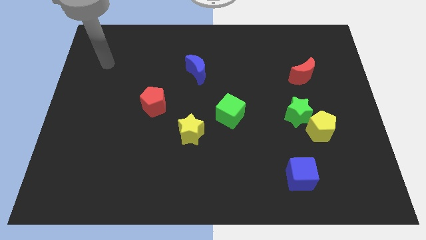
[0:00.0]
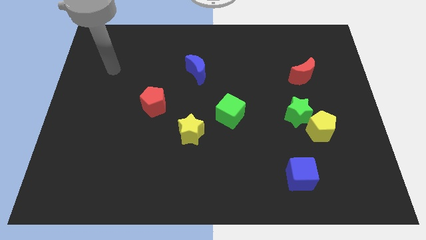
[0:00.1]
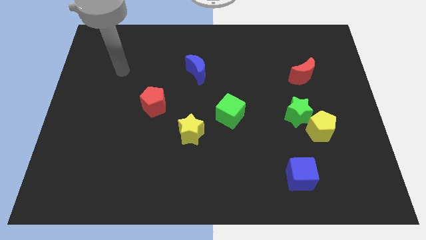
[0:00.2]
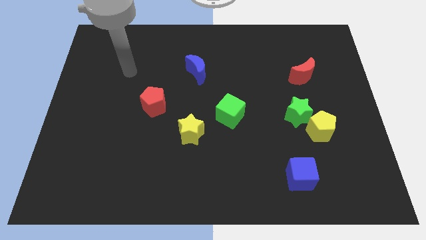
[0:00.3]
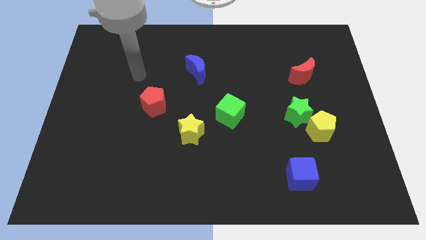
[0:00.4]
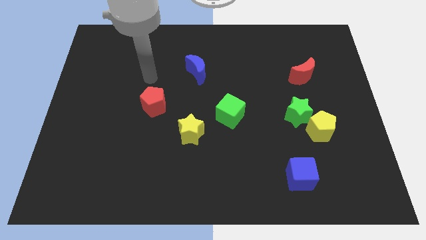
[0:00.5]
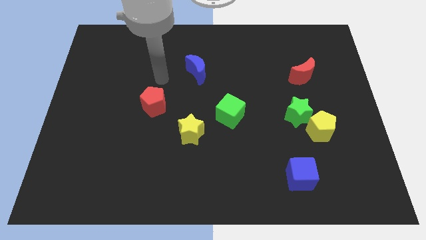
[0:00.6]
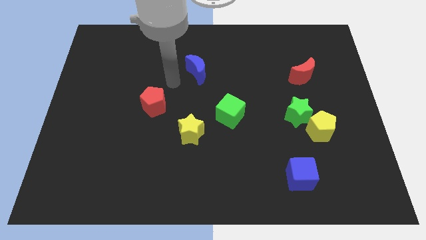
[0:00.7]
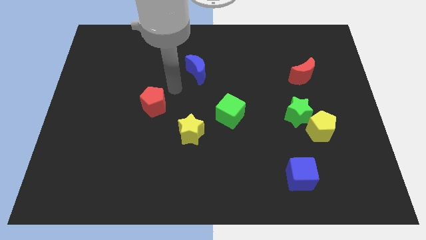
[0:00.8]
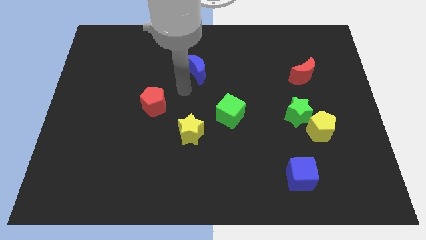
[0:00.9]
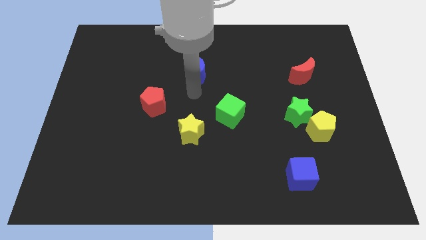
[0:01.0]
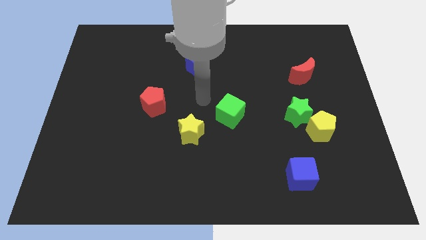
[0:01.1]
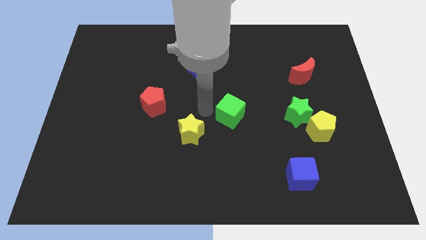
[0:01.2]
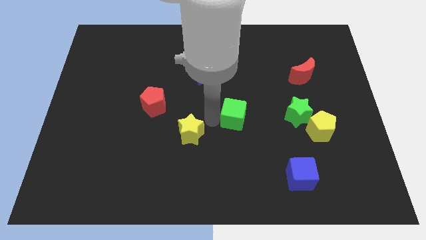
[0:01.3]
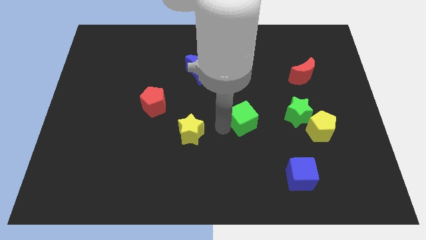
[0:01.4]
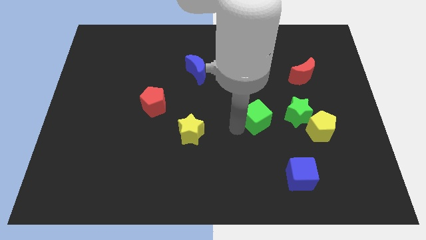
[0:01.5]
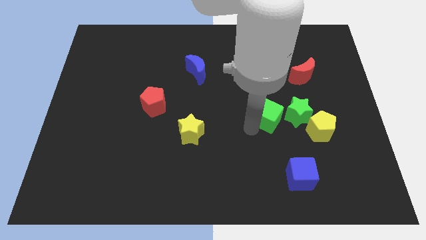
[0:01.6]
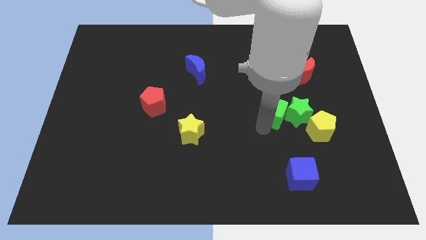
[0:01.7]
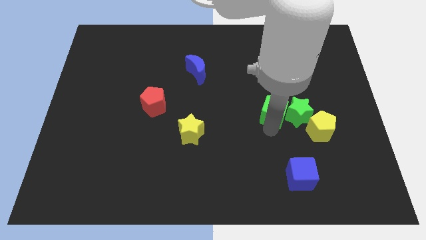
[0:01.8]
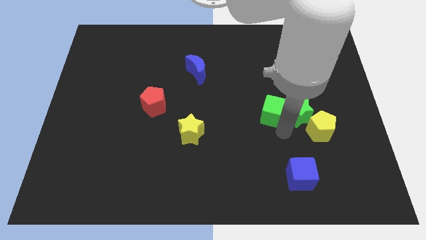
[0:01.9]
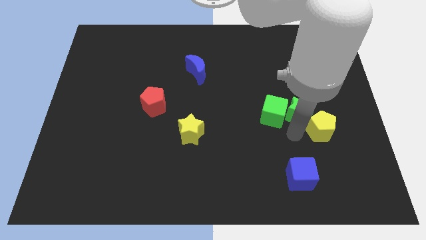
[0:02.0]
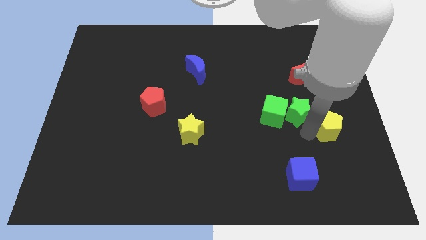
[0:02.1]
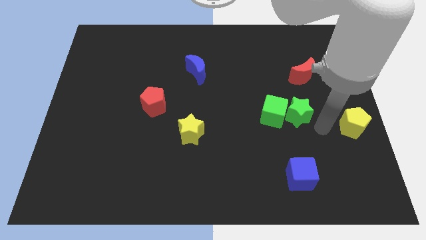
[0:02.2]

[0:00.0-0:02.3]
pull the green star apart from the yellow pentagon

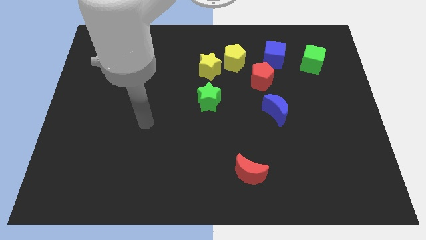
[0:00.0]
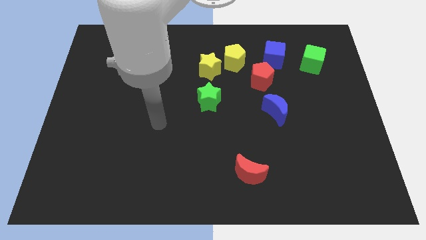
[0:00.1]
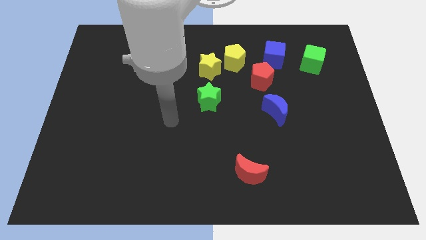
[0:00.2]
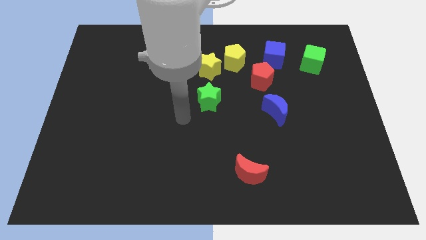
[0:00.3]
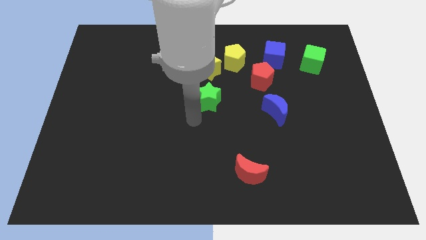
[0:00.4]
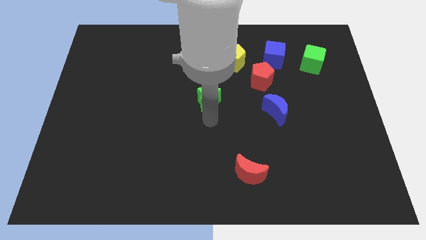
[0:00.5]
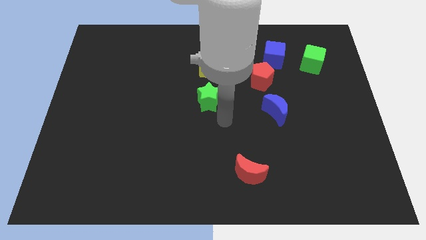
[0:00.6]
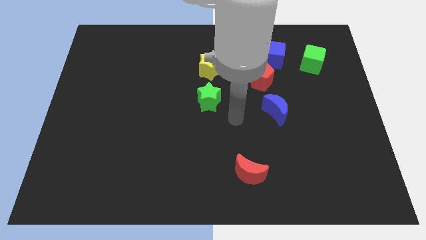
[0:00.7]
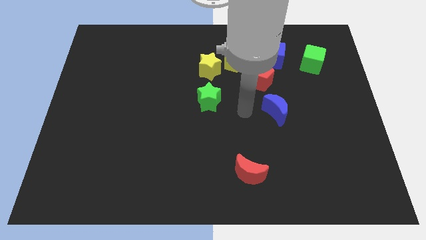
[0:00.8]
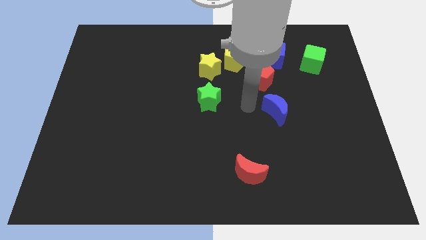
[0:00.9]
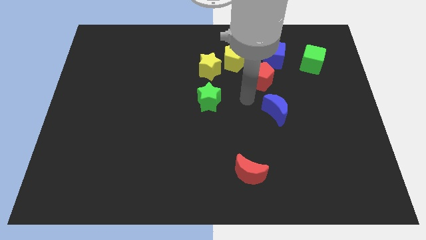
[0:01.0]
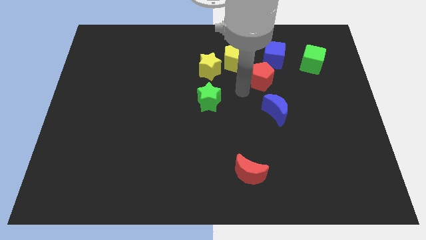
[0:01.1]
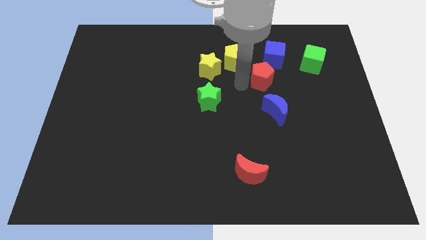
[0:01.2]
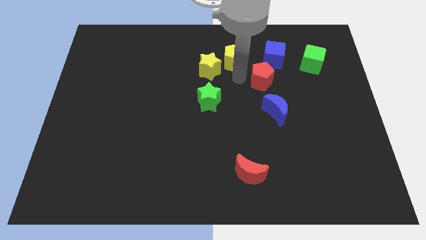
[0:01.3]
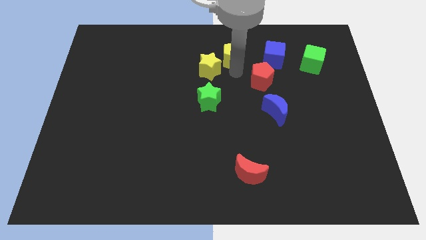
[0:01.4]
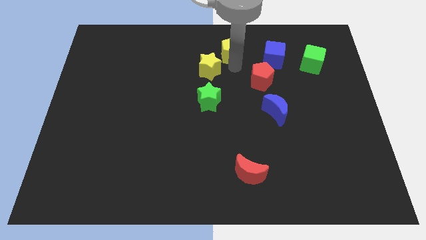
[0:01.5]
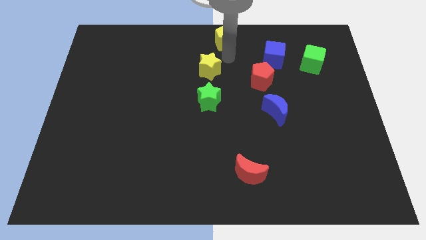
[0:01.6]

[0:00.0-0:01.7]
pull the yellow star apart from the yellow pentagon

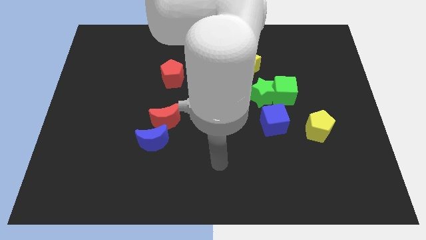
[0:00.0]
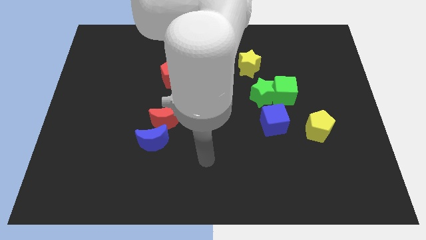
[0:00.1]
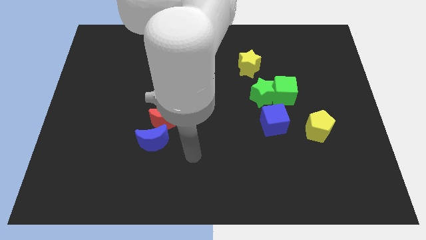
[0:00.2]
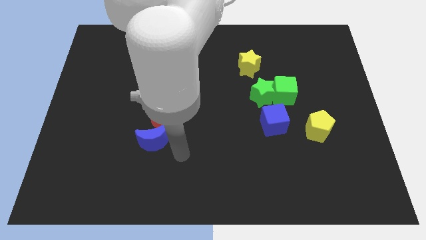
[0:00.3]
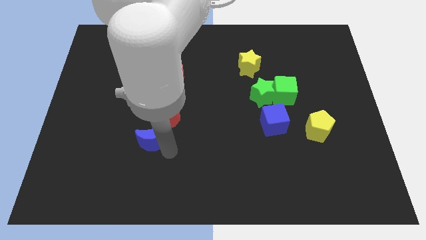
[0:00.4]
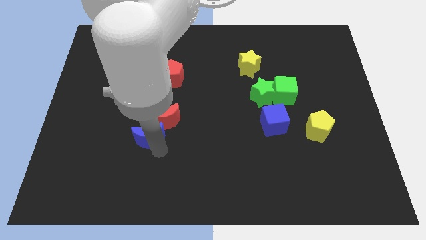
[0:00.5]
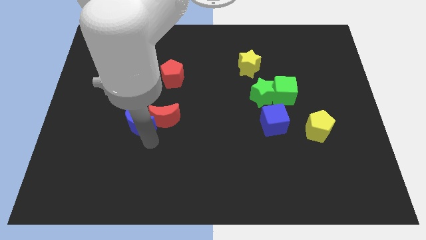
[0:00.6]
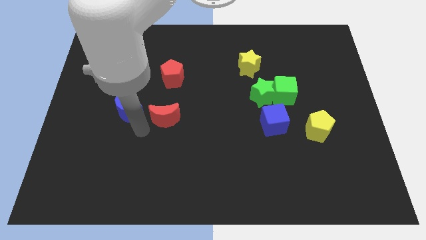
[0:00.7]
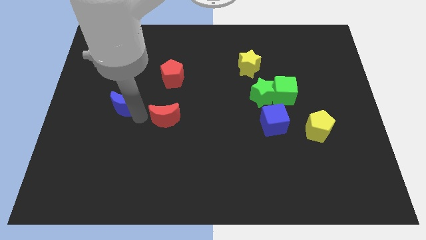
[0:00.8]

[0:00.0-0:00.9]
move the red moon away from the blue moon

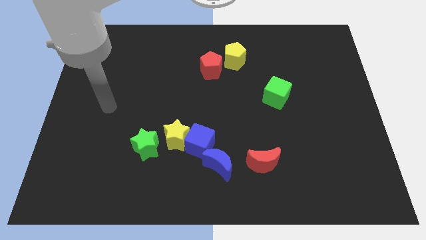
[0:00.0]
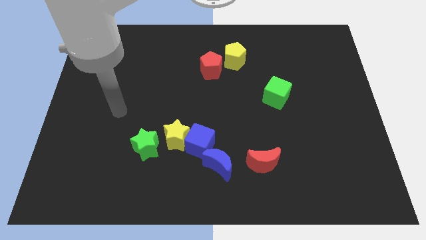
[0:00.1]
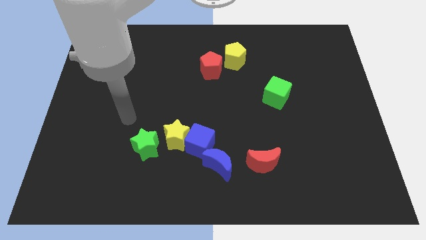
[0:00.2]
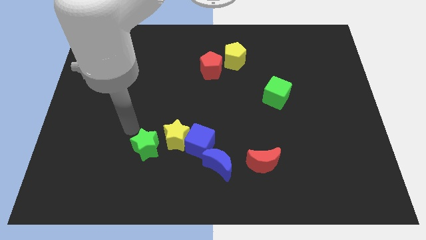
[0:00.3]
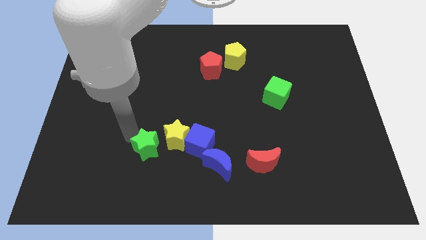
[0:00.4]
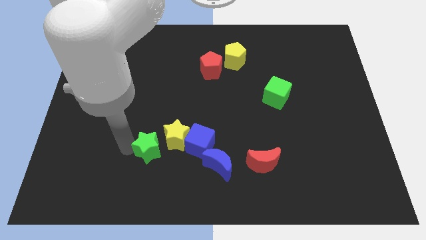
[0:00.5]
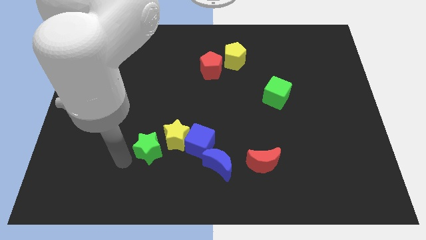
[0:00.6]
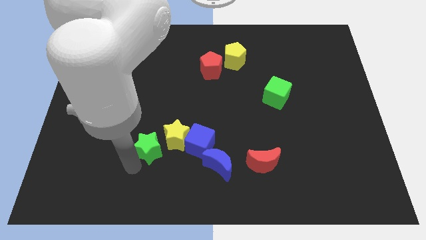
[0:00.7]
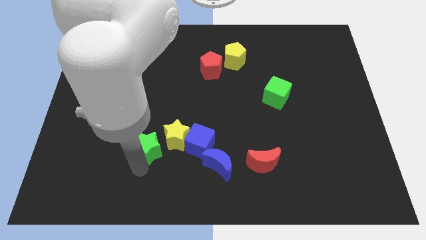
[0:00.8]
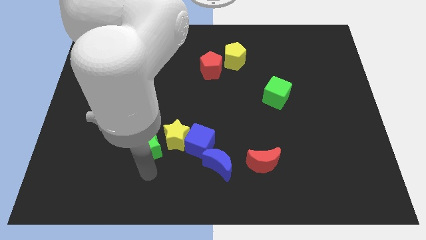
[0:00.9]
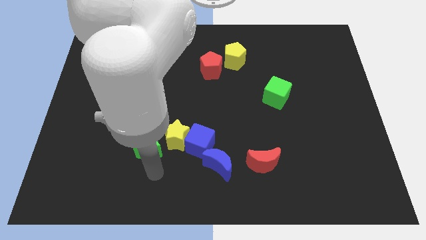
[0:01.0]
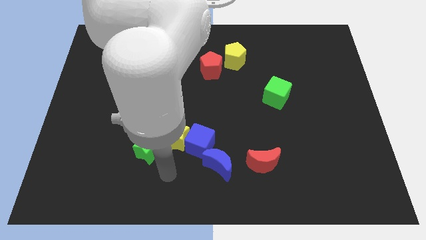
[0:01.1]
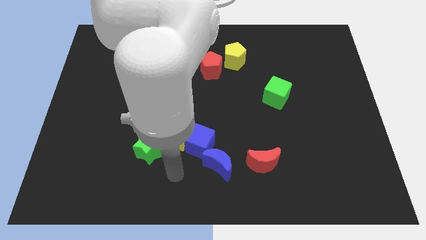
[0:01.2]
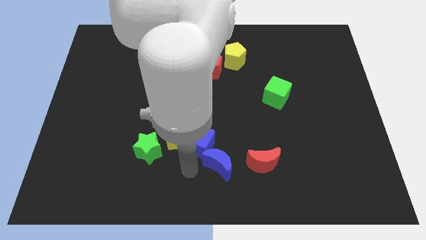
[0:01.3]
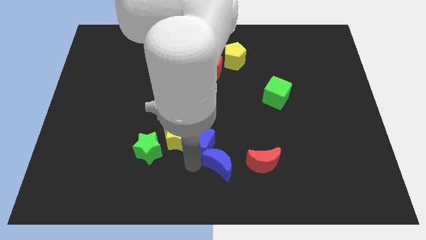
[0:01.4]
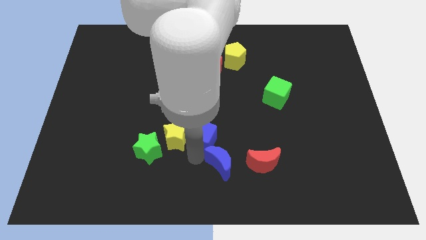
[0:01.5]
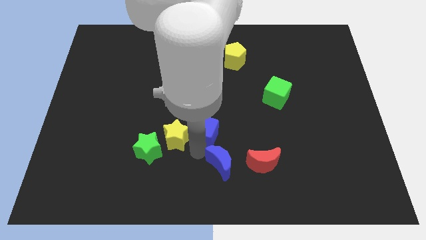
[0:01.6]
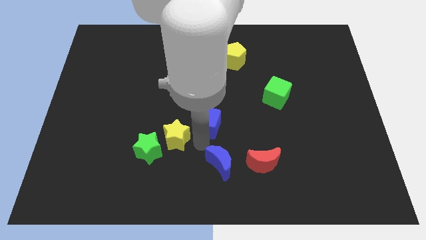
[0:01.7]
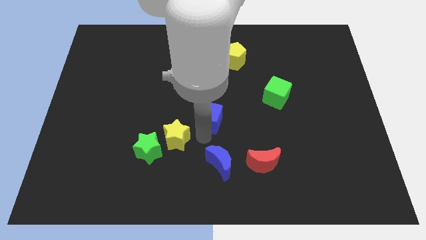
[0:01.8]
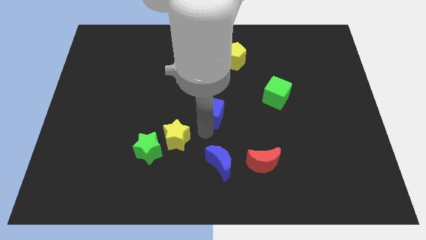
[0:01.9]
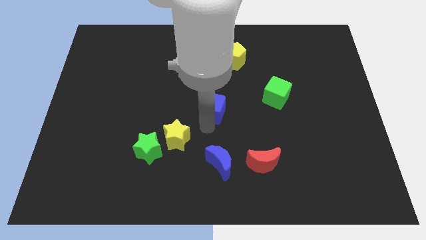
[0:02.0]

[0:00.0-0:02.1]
pull the blue cube apart from the yellow star and blue moon

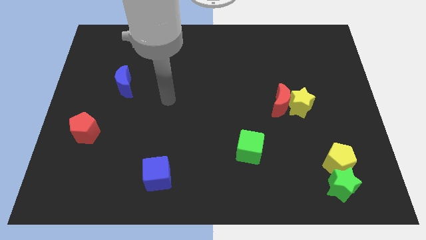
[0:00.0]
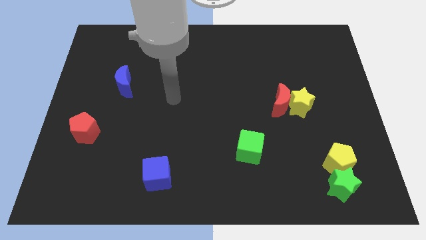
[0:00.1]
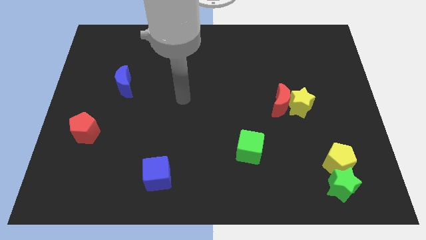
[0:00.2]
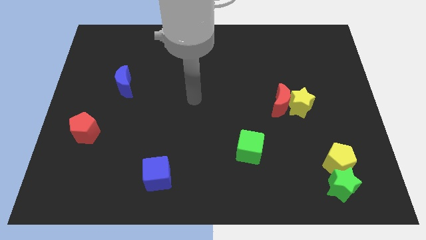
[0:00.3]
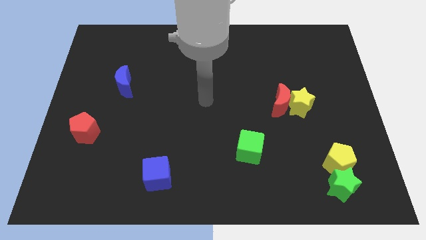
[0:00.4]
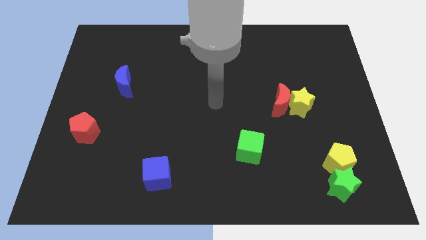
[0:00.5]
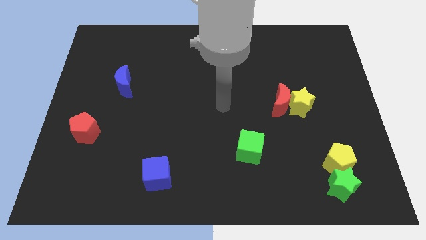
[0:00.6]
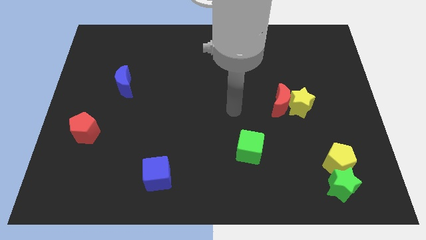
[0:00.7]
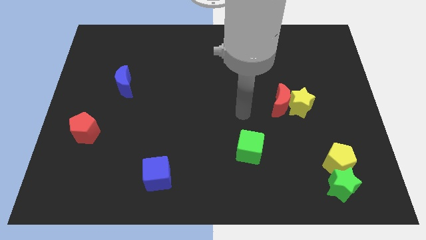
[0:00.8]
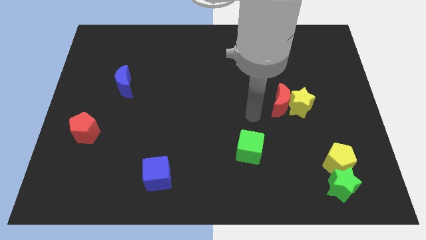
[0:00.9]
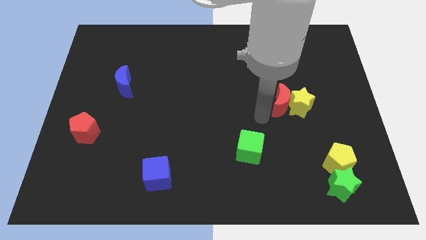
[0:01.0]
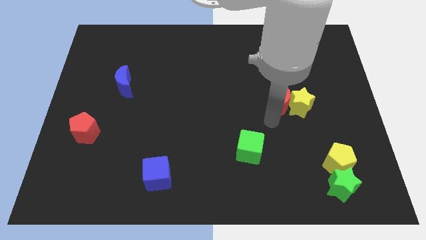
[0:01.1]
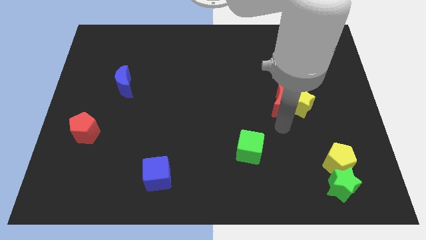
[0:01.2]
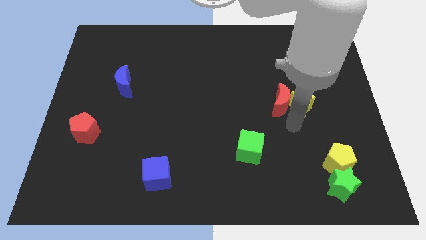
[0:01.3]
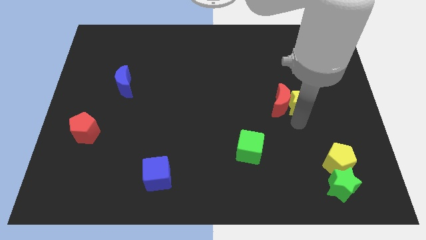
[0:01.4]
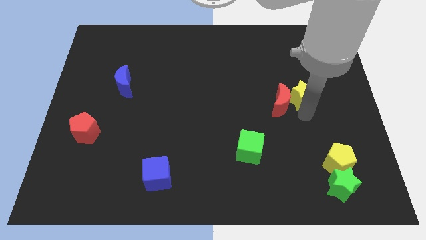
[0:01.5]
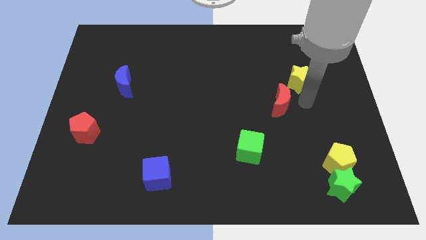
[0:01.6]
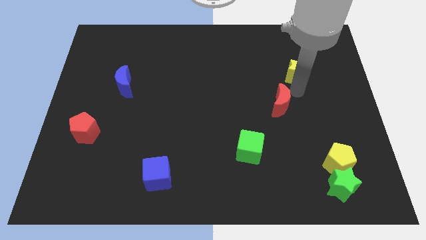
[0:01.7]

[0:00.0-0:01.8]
pull the red moon apart from the yellow star

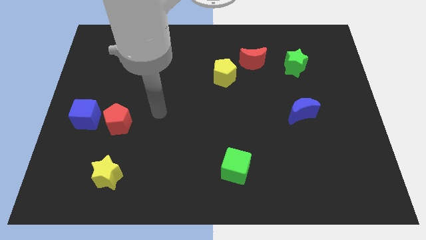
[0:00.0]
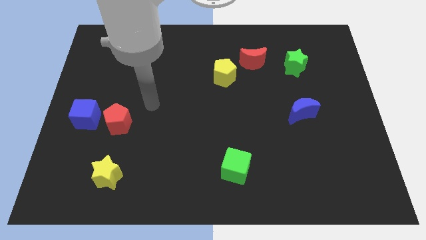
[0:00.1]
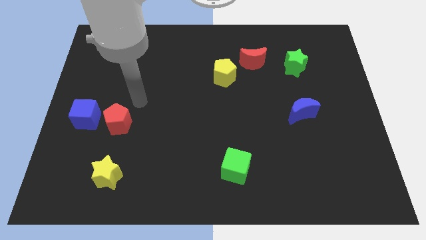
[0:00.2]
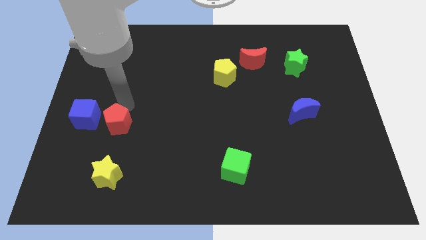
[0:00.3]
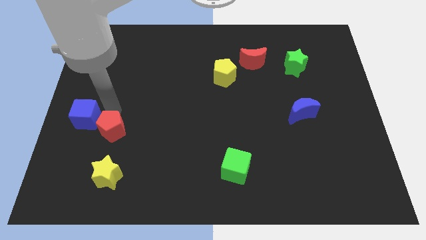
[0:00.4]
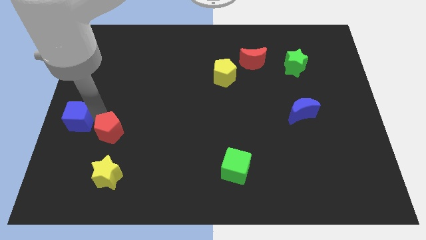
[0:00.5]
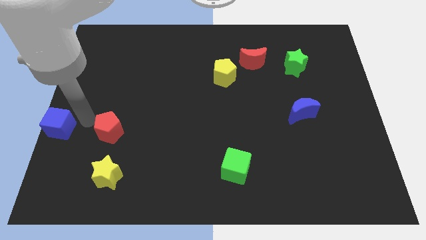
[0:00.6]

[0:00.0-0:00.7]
pull the red pentagon apart from the blue cube
